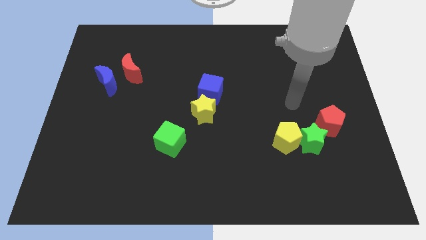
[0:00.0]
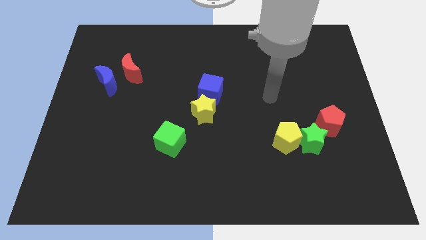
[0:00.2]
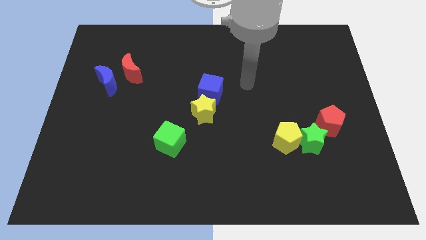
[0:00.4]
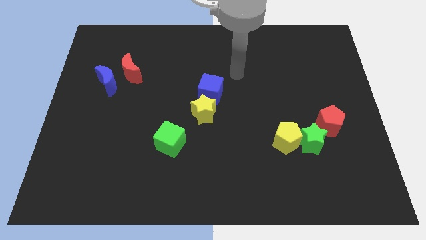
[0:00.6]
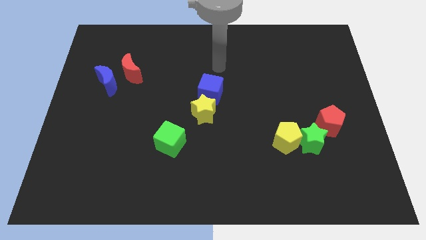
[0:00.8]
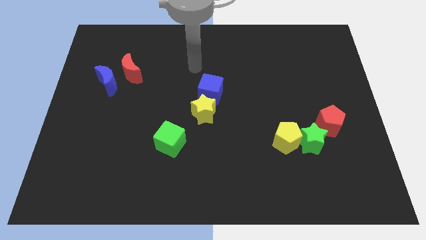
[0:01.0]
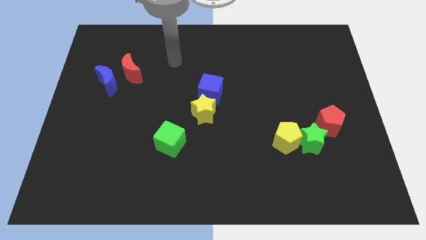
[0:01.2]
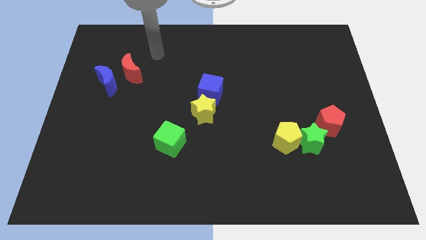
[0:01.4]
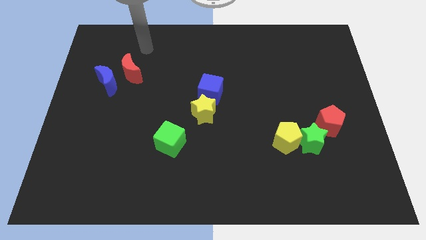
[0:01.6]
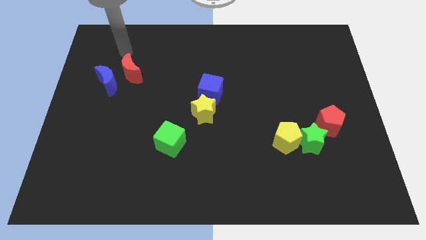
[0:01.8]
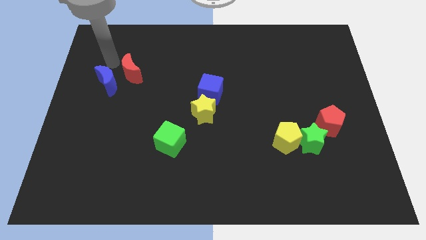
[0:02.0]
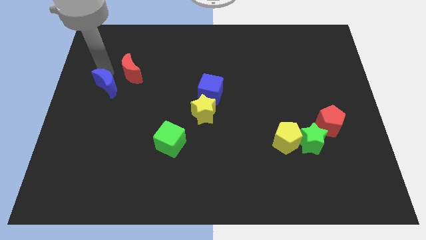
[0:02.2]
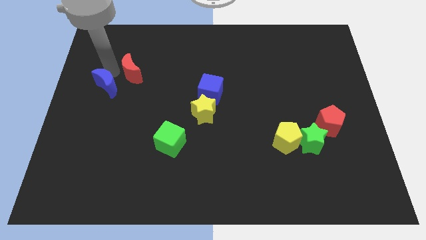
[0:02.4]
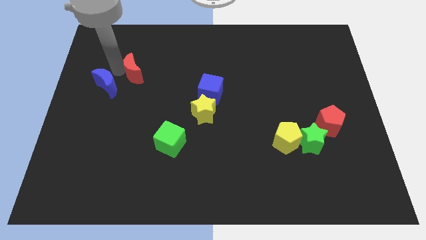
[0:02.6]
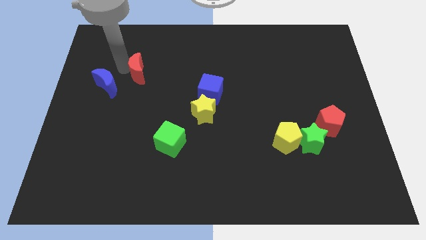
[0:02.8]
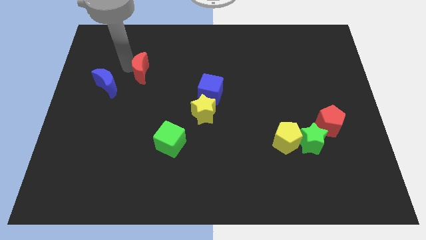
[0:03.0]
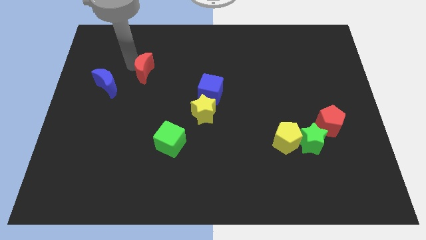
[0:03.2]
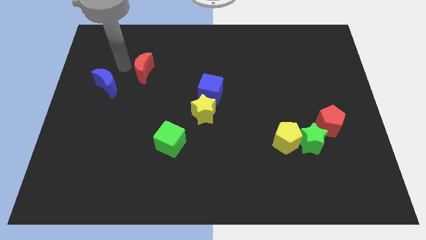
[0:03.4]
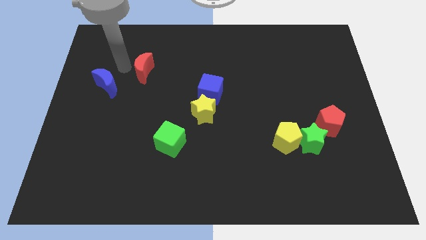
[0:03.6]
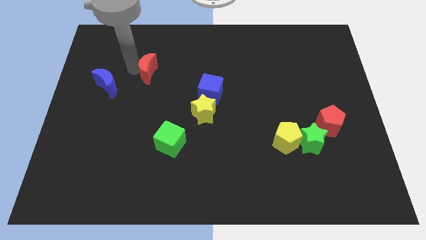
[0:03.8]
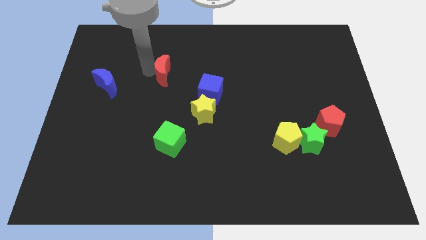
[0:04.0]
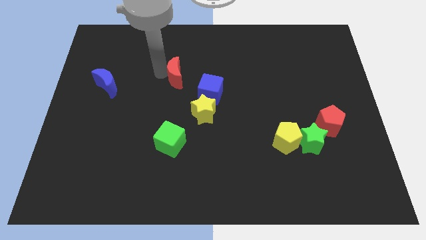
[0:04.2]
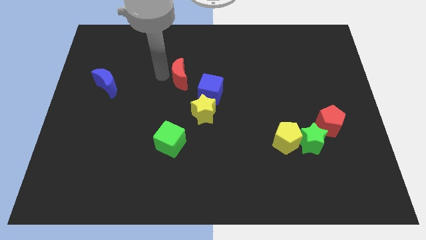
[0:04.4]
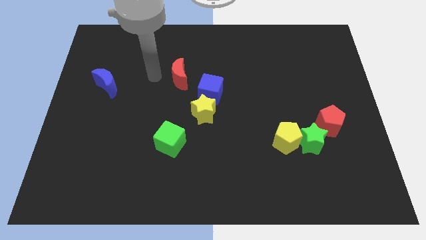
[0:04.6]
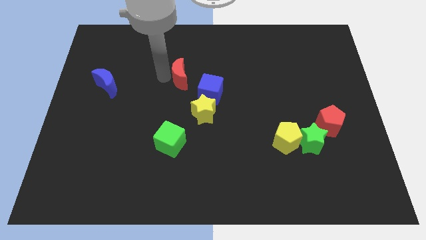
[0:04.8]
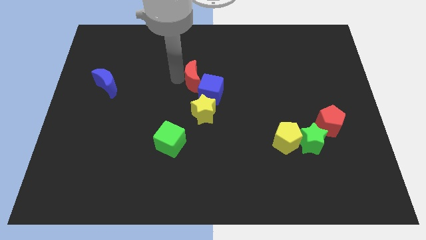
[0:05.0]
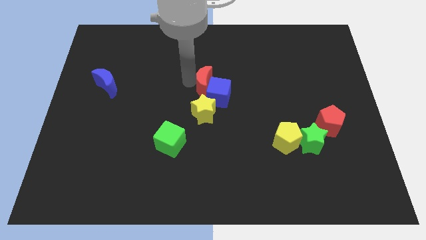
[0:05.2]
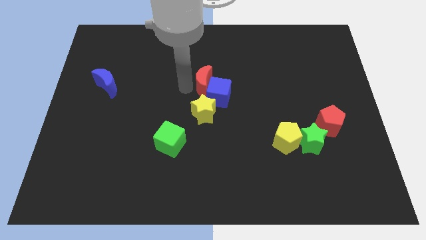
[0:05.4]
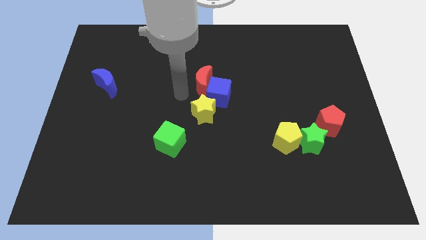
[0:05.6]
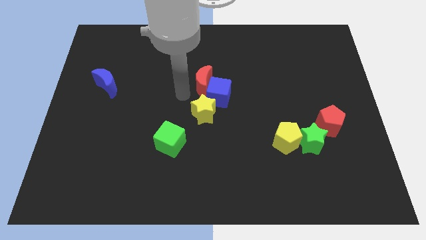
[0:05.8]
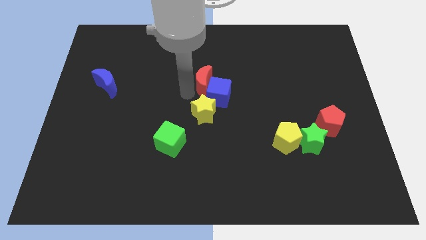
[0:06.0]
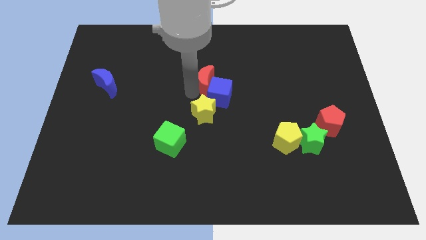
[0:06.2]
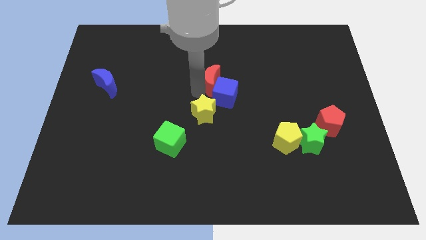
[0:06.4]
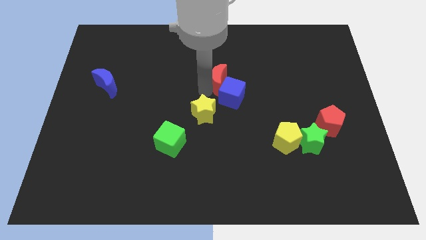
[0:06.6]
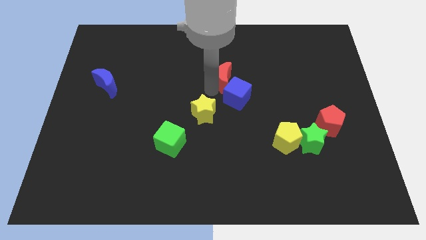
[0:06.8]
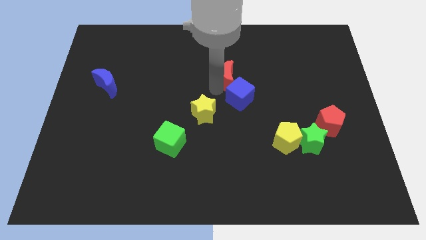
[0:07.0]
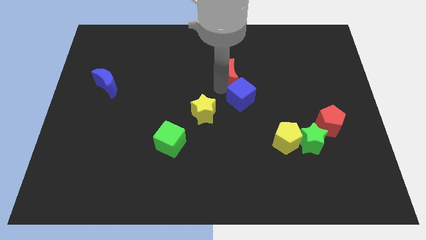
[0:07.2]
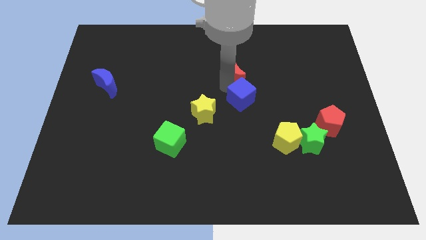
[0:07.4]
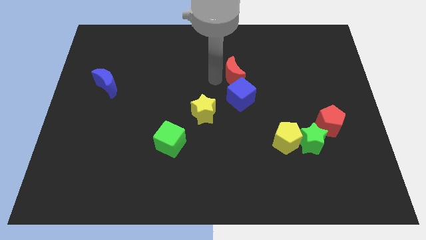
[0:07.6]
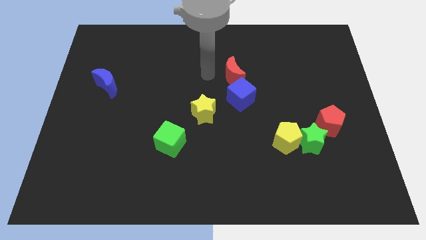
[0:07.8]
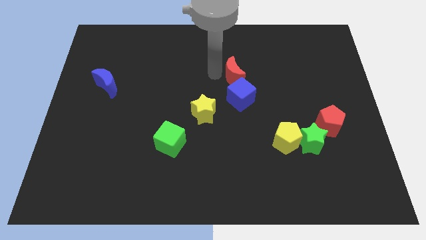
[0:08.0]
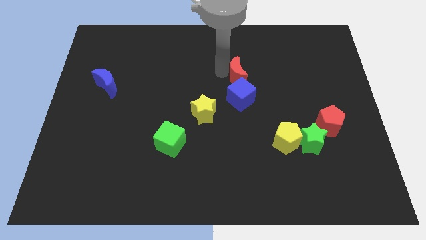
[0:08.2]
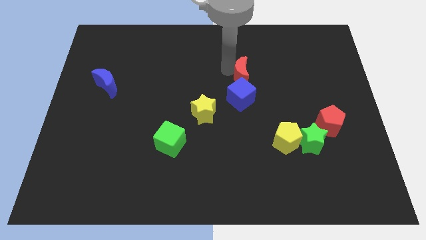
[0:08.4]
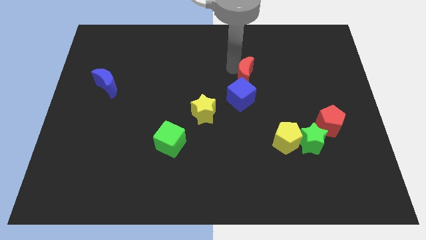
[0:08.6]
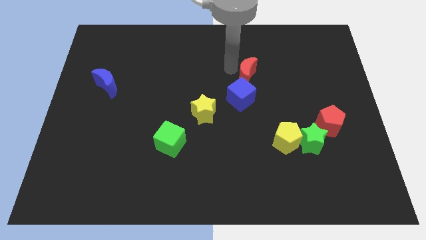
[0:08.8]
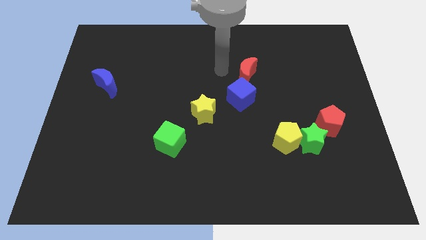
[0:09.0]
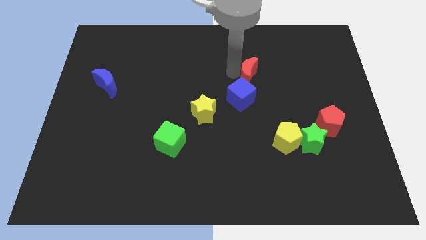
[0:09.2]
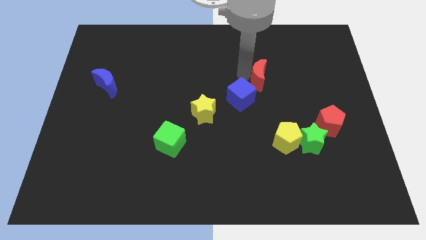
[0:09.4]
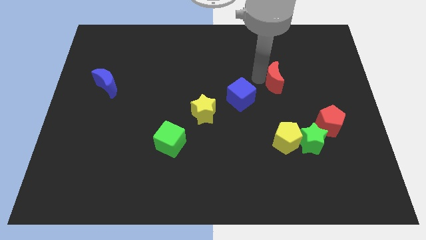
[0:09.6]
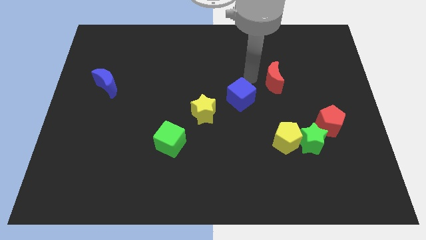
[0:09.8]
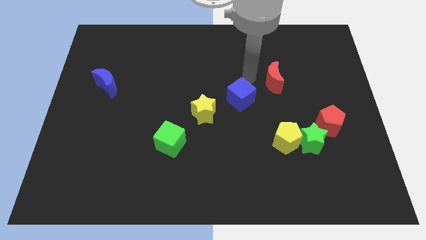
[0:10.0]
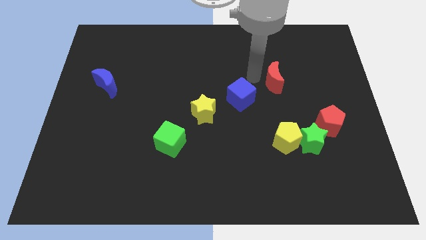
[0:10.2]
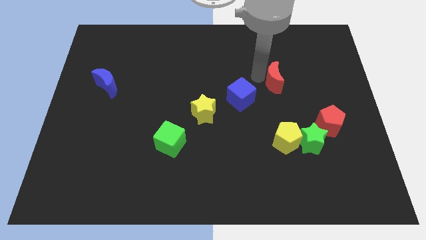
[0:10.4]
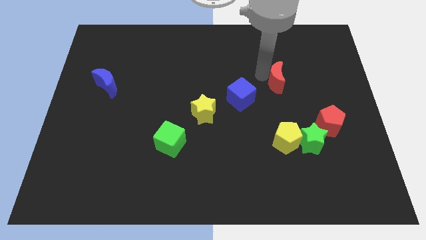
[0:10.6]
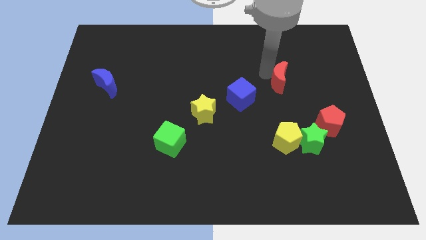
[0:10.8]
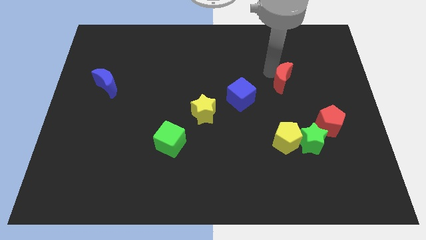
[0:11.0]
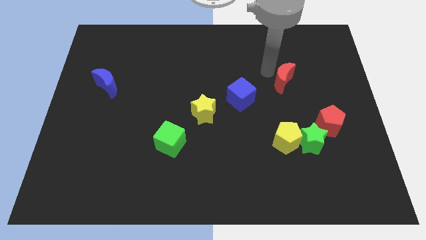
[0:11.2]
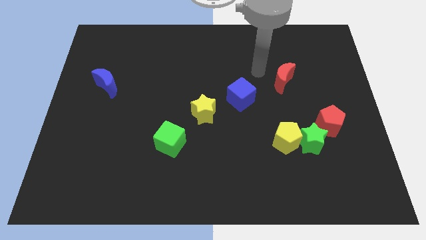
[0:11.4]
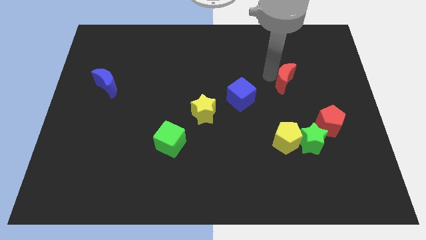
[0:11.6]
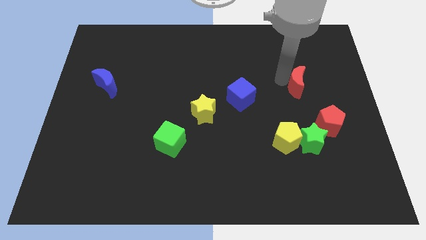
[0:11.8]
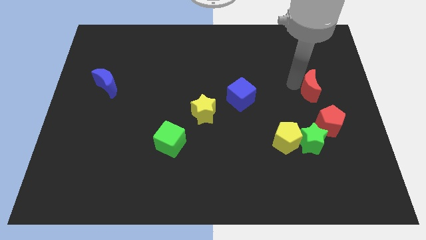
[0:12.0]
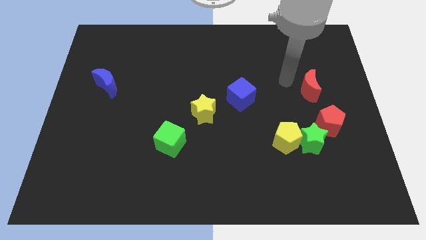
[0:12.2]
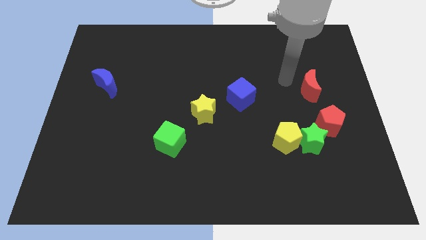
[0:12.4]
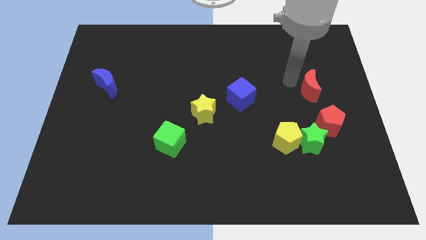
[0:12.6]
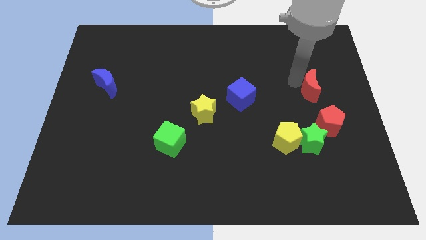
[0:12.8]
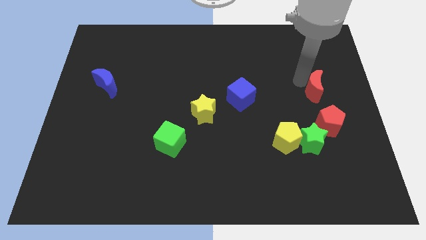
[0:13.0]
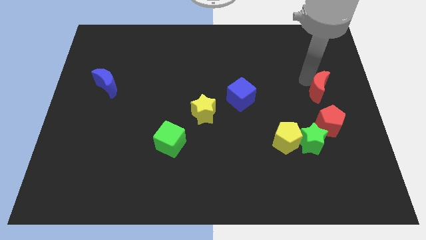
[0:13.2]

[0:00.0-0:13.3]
move the red moon to the right side
